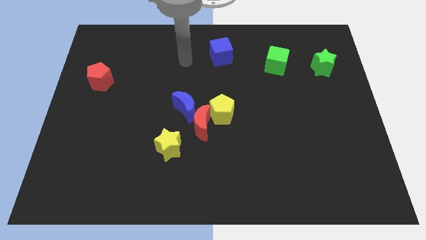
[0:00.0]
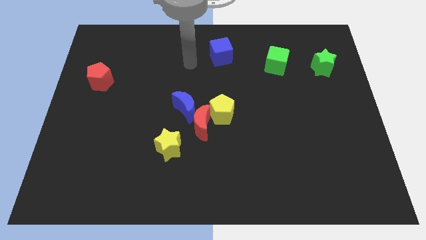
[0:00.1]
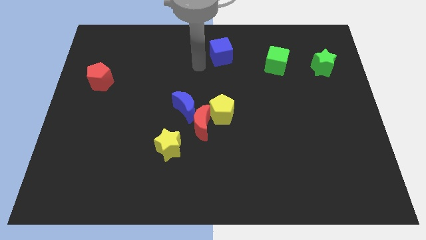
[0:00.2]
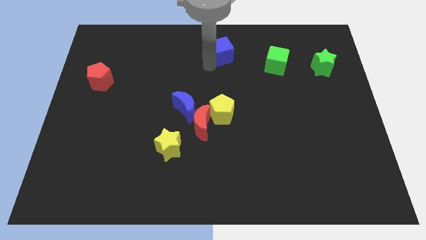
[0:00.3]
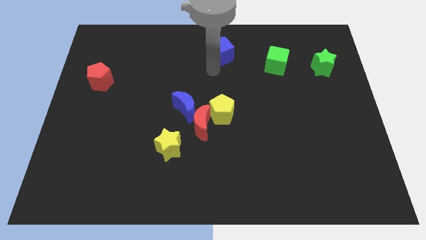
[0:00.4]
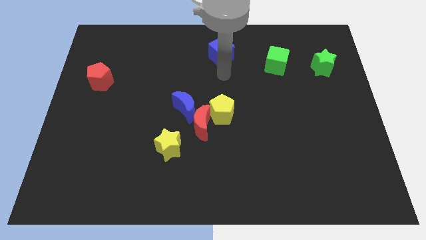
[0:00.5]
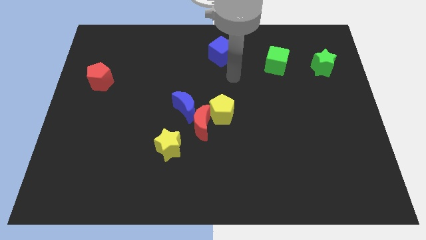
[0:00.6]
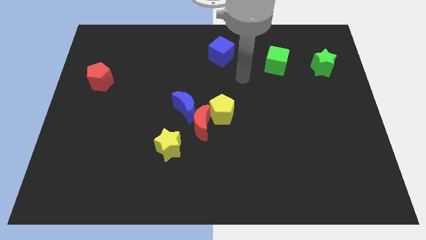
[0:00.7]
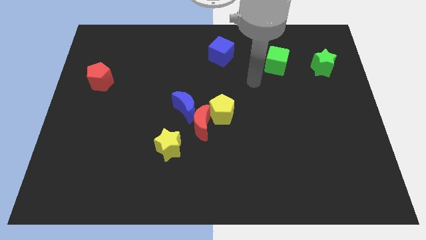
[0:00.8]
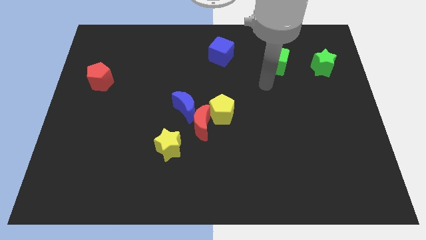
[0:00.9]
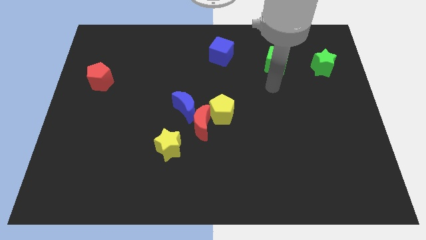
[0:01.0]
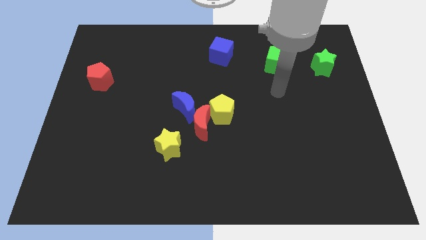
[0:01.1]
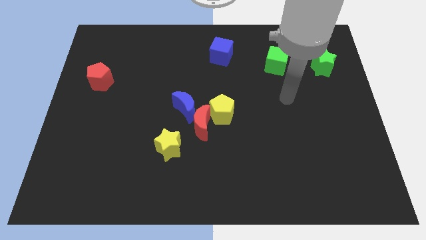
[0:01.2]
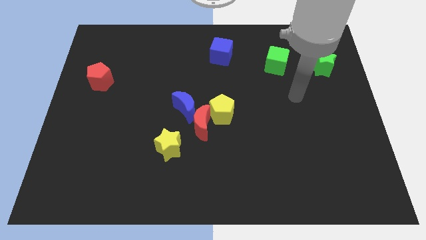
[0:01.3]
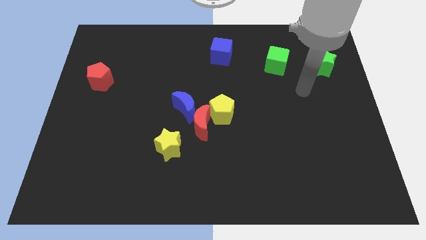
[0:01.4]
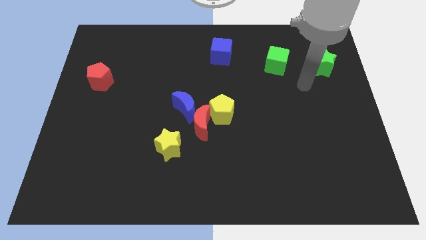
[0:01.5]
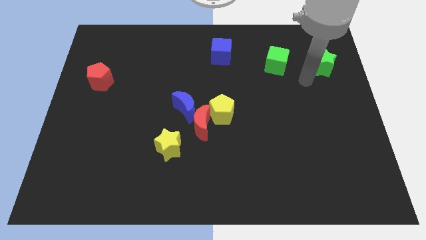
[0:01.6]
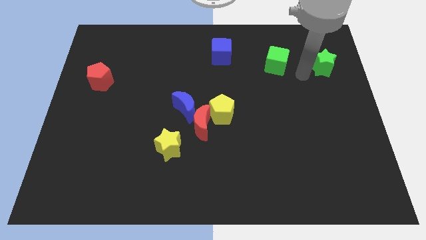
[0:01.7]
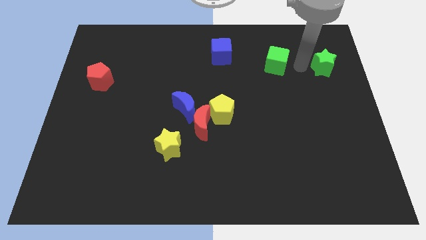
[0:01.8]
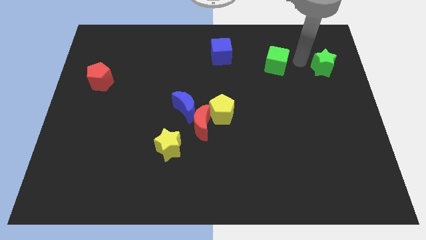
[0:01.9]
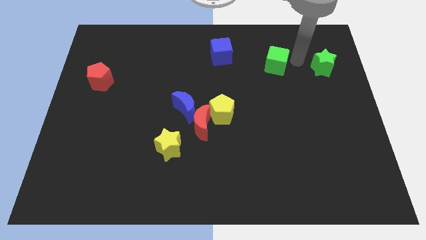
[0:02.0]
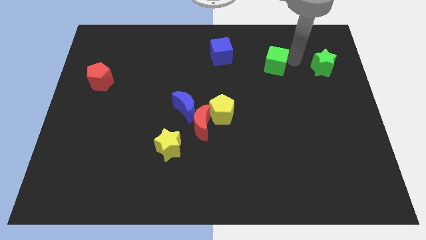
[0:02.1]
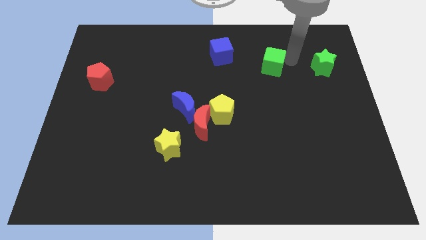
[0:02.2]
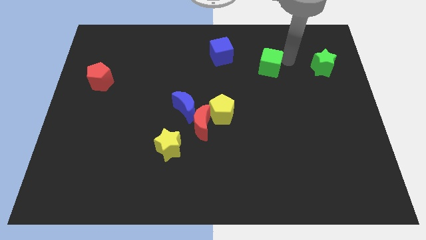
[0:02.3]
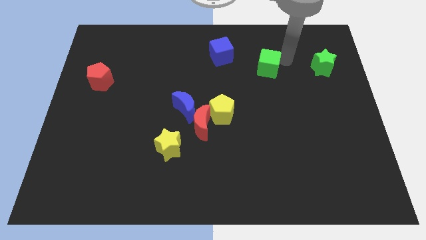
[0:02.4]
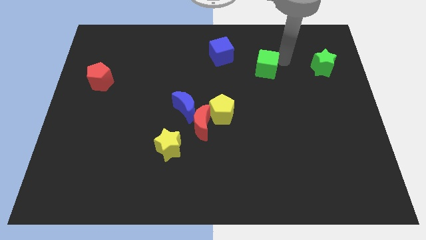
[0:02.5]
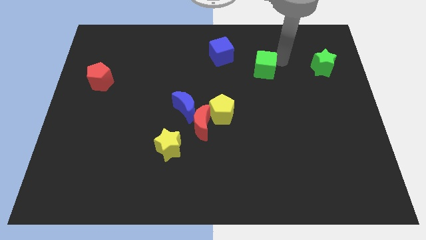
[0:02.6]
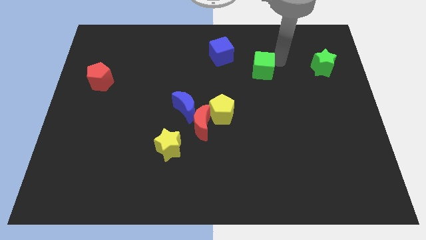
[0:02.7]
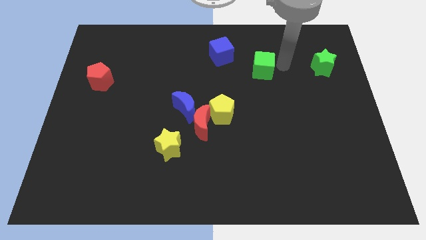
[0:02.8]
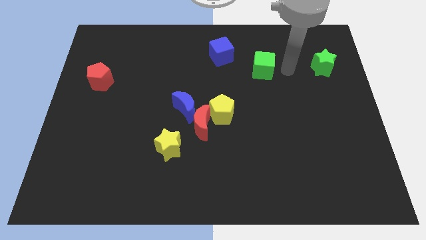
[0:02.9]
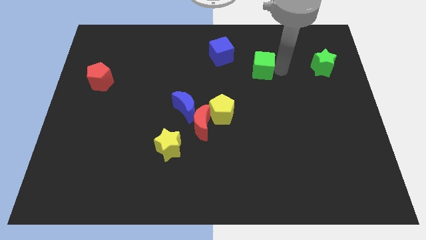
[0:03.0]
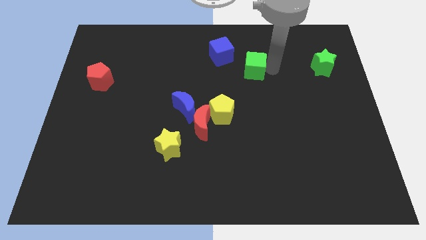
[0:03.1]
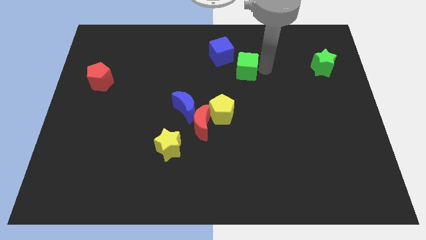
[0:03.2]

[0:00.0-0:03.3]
slightly push the green cube left

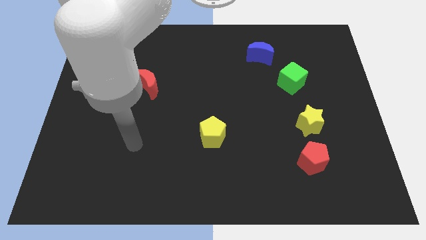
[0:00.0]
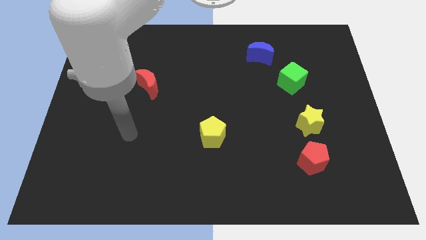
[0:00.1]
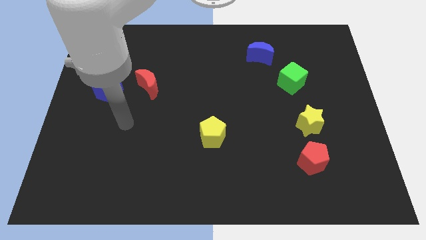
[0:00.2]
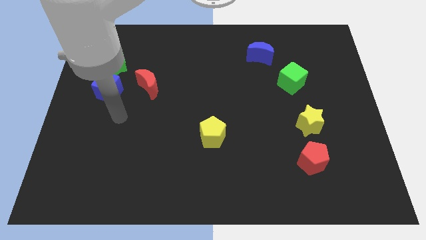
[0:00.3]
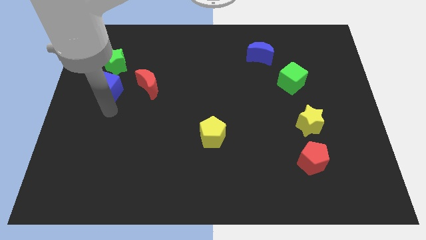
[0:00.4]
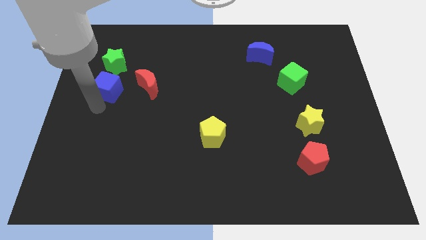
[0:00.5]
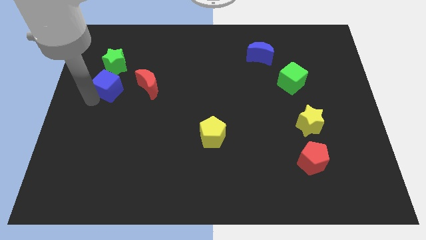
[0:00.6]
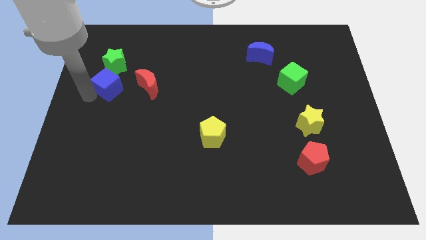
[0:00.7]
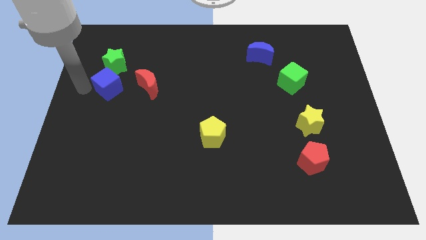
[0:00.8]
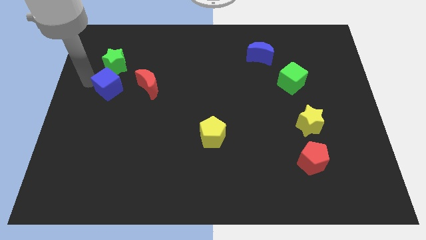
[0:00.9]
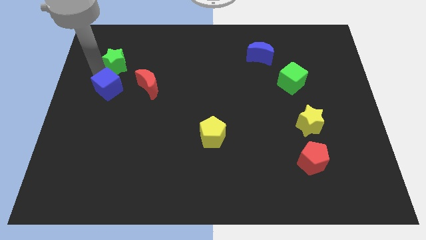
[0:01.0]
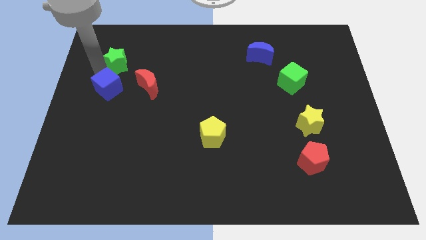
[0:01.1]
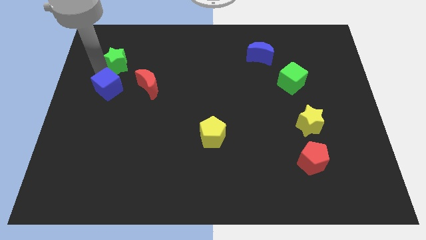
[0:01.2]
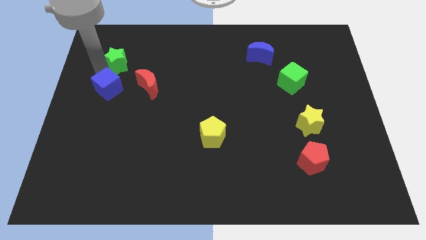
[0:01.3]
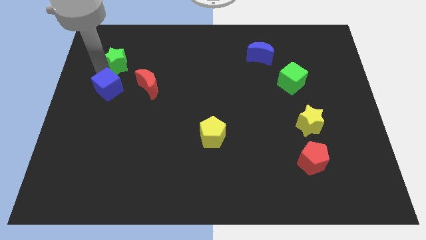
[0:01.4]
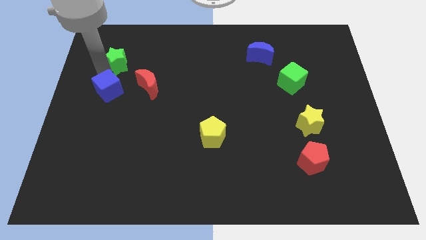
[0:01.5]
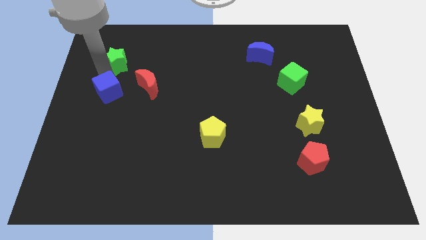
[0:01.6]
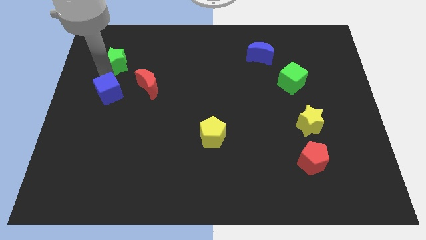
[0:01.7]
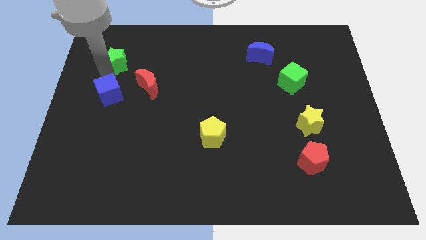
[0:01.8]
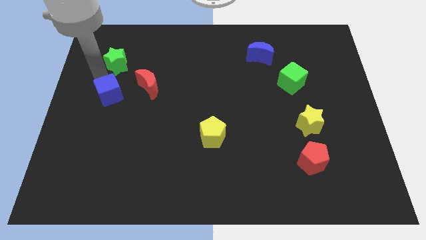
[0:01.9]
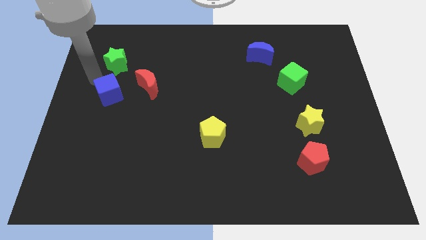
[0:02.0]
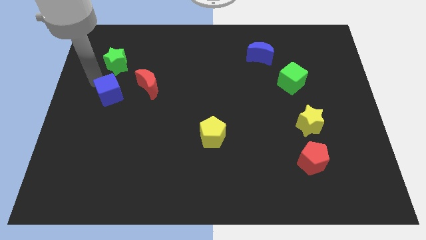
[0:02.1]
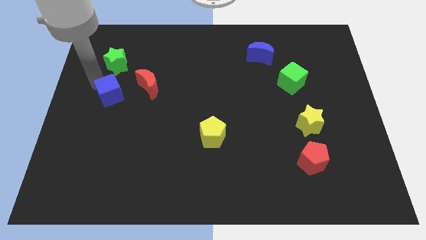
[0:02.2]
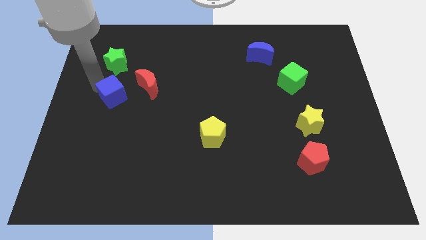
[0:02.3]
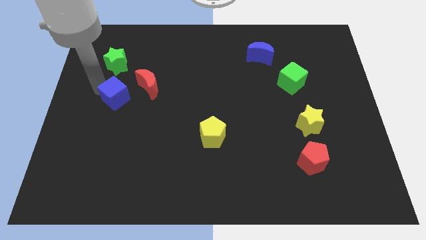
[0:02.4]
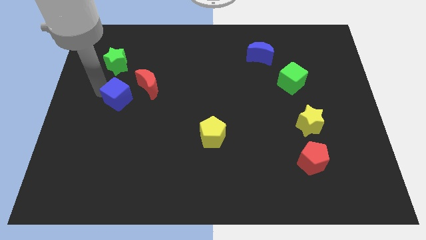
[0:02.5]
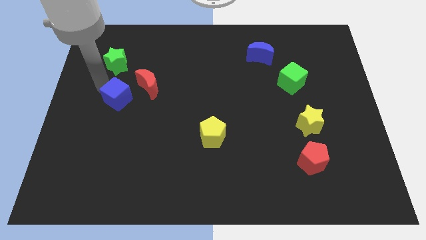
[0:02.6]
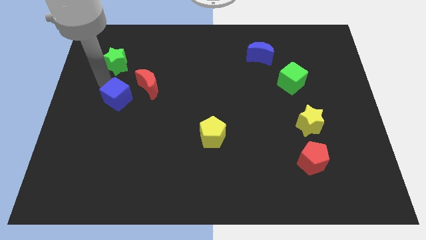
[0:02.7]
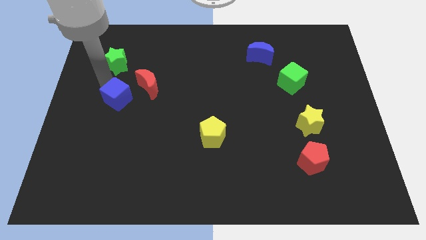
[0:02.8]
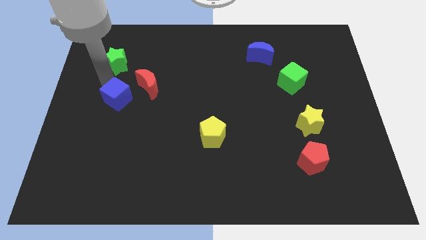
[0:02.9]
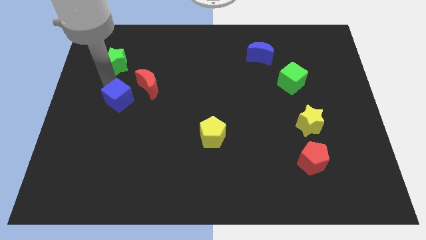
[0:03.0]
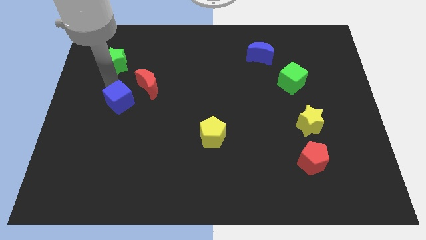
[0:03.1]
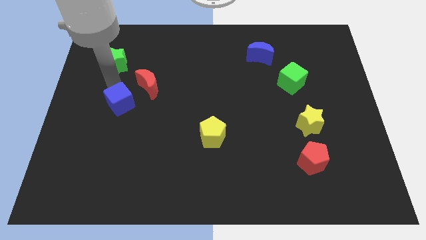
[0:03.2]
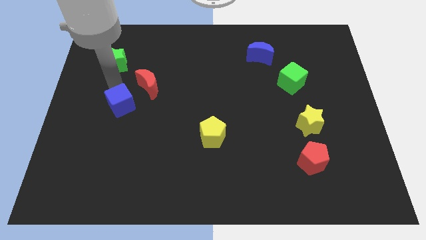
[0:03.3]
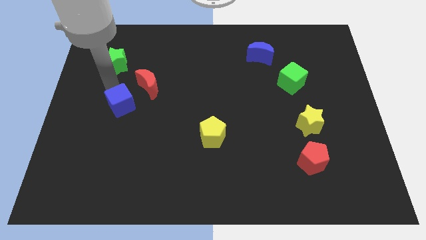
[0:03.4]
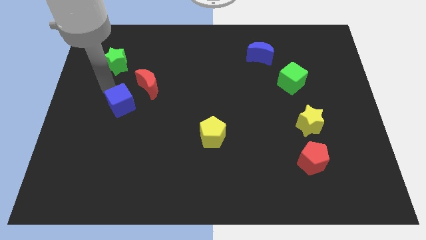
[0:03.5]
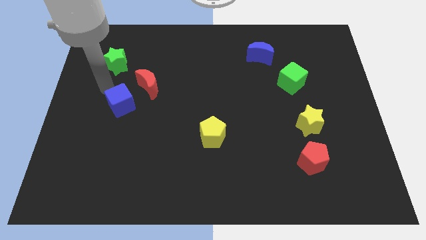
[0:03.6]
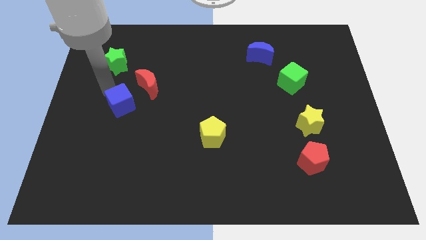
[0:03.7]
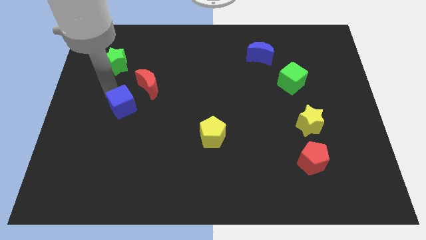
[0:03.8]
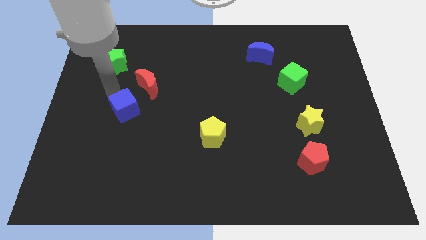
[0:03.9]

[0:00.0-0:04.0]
slide the blue cube a little bit diagonally down and right

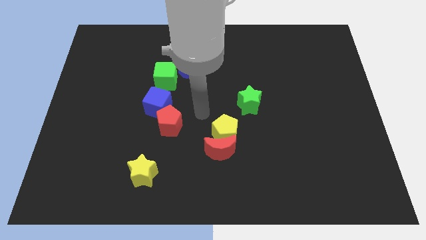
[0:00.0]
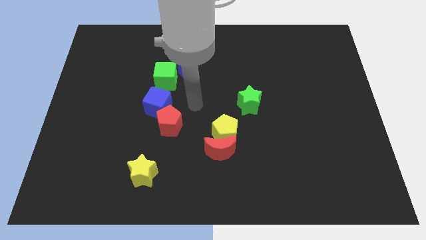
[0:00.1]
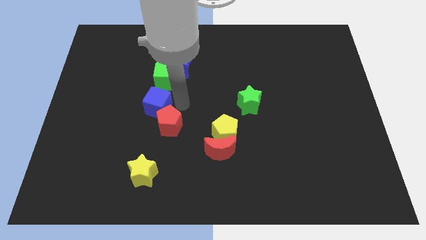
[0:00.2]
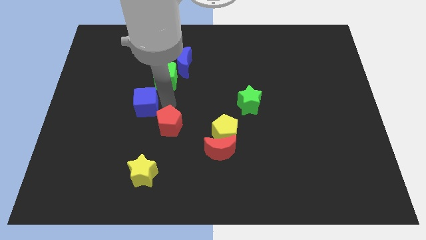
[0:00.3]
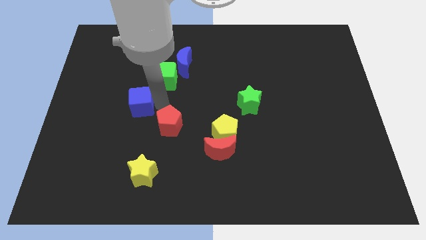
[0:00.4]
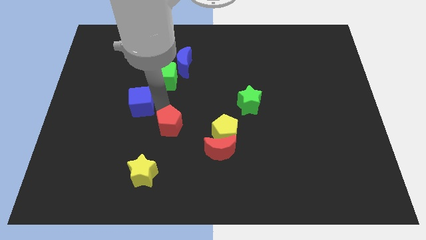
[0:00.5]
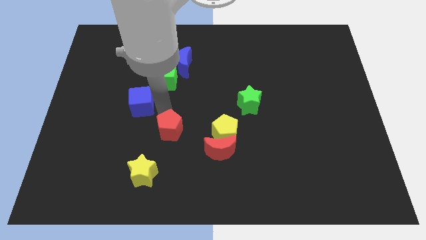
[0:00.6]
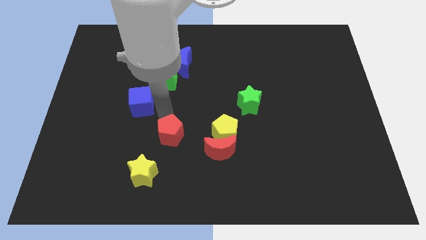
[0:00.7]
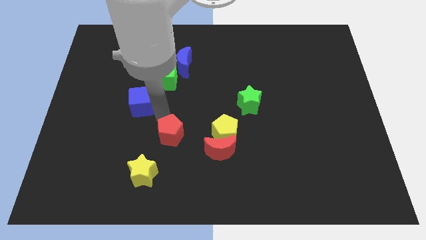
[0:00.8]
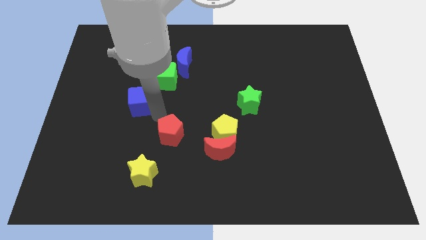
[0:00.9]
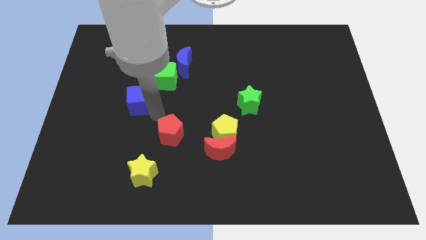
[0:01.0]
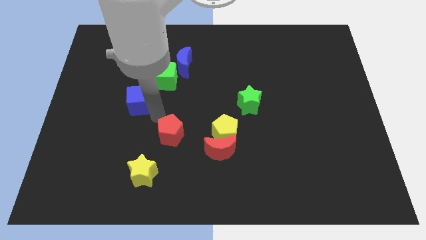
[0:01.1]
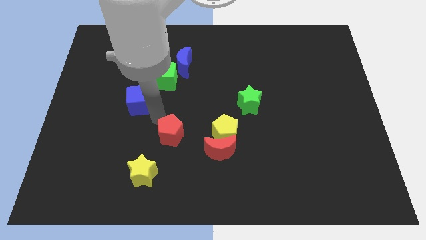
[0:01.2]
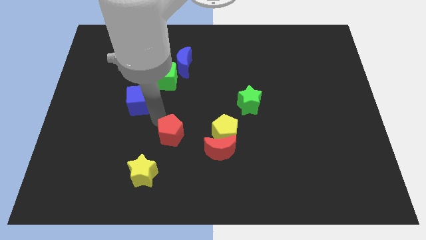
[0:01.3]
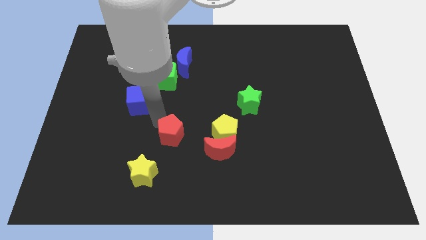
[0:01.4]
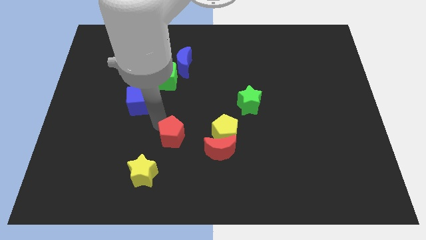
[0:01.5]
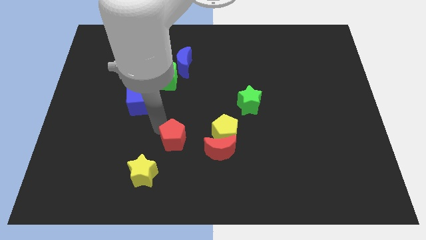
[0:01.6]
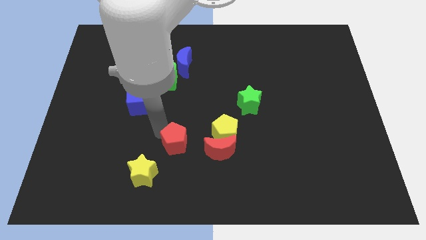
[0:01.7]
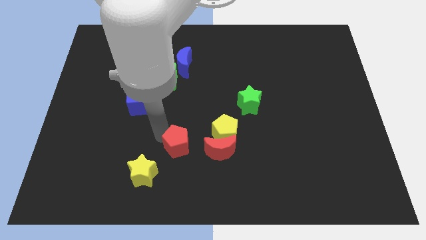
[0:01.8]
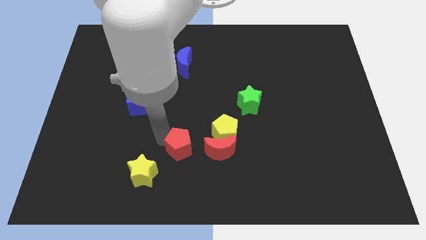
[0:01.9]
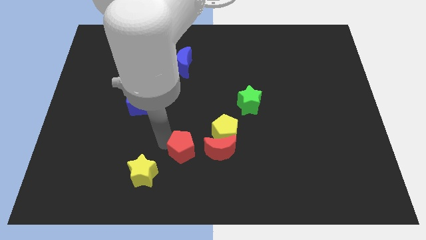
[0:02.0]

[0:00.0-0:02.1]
slightly move the red pentagon downwards and to the right
